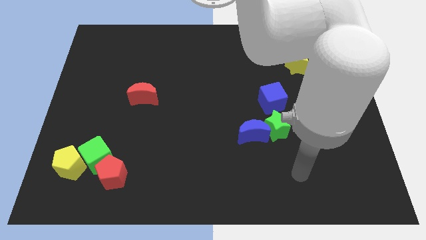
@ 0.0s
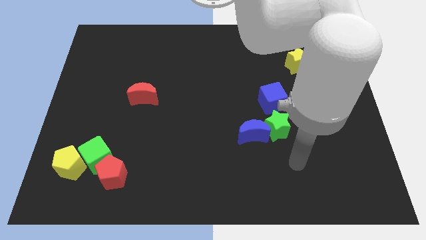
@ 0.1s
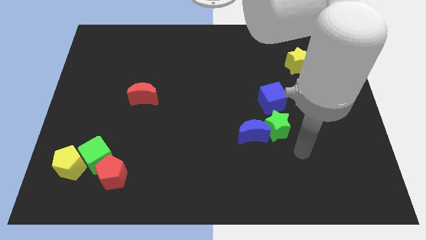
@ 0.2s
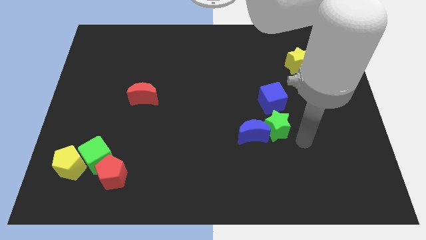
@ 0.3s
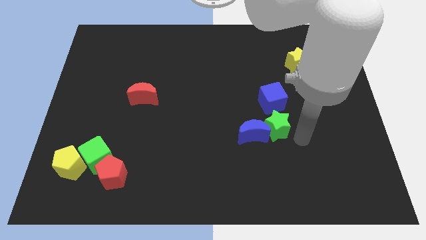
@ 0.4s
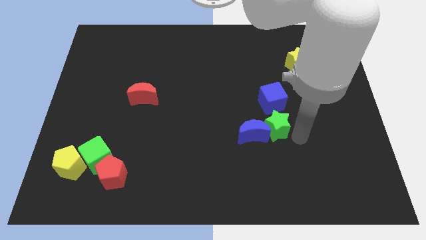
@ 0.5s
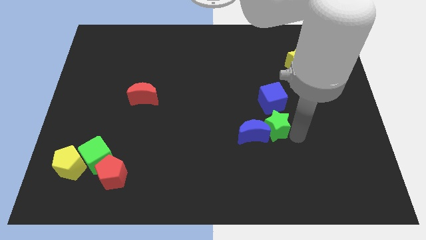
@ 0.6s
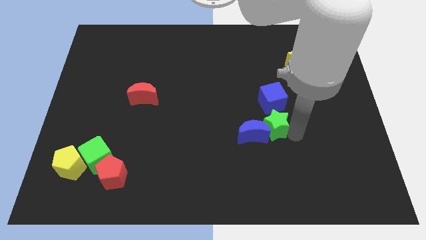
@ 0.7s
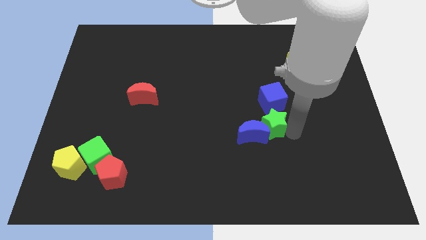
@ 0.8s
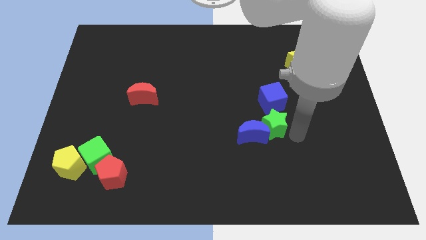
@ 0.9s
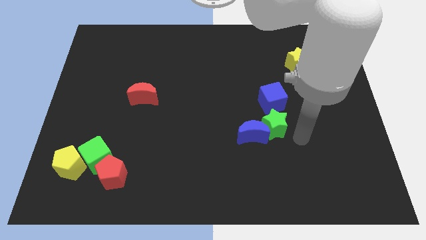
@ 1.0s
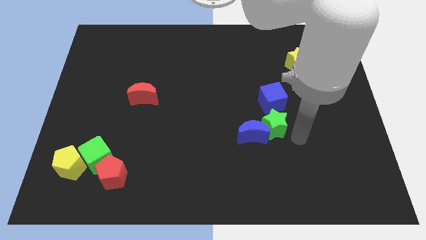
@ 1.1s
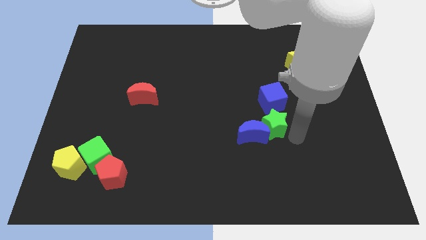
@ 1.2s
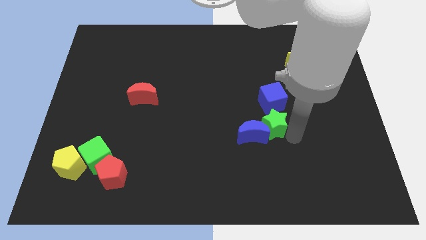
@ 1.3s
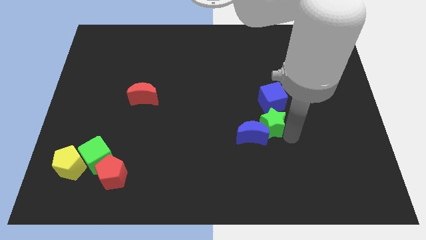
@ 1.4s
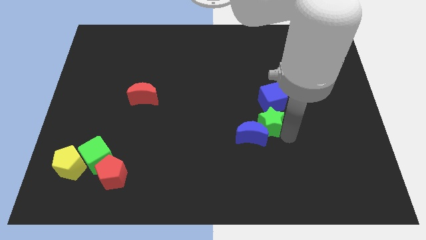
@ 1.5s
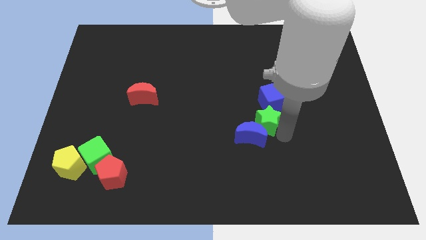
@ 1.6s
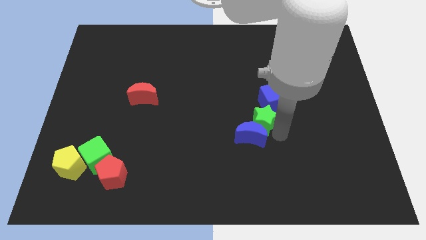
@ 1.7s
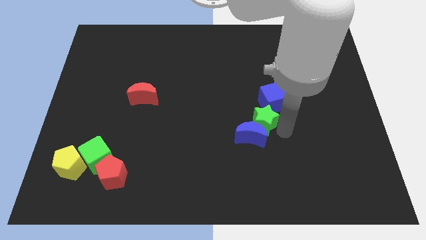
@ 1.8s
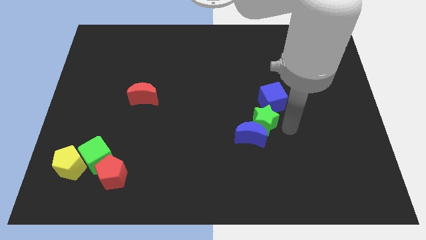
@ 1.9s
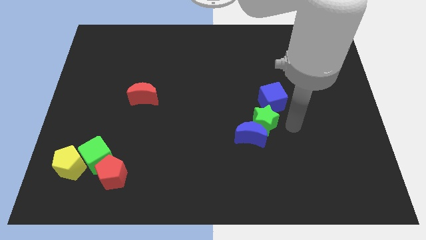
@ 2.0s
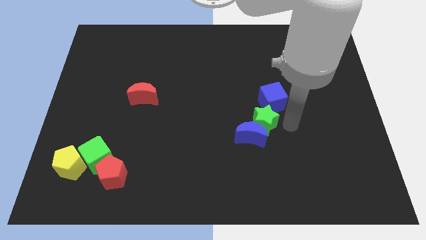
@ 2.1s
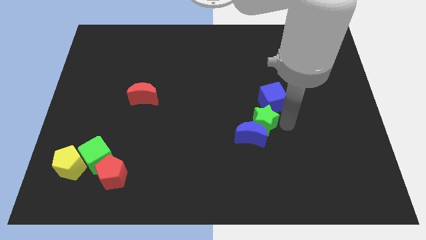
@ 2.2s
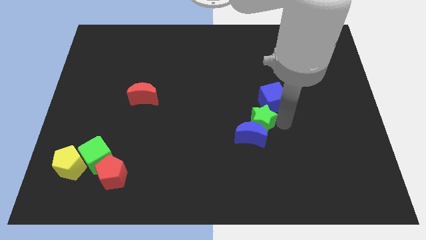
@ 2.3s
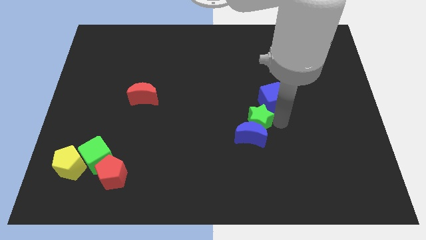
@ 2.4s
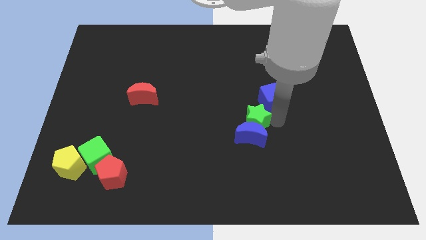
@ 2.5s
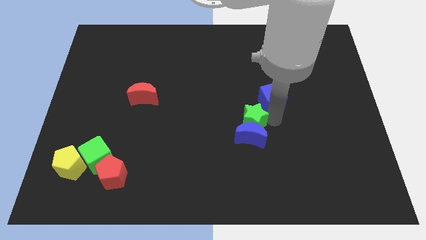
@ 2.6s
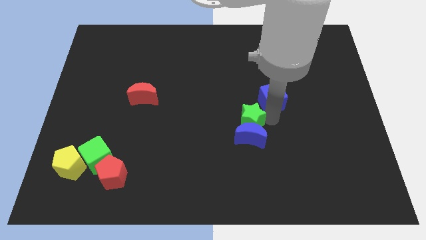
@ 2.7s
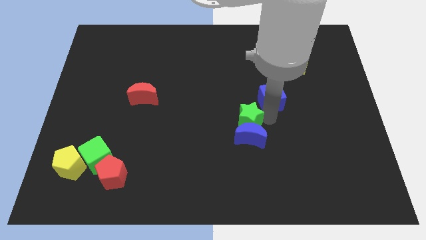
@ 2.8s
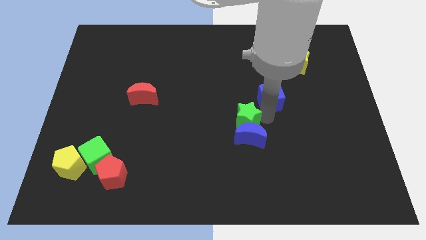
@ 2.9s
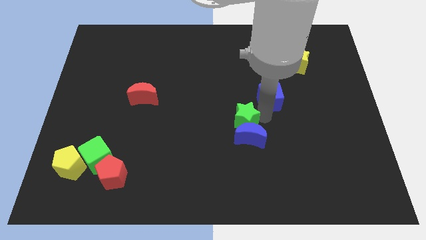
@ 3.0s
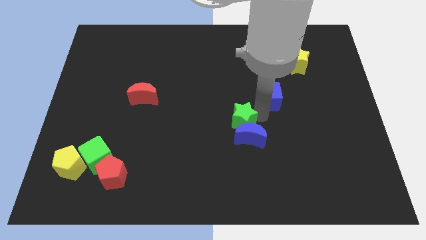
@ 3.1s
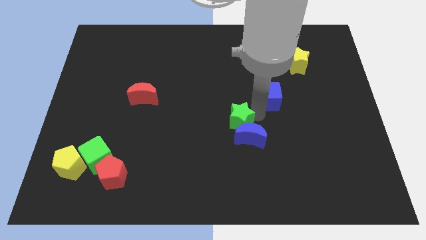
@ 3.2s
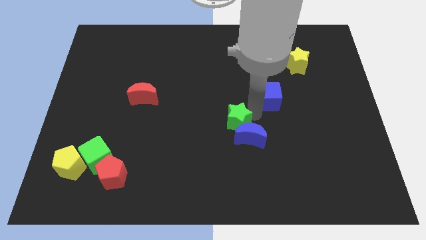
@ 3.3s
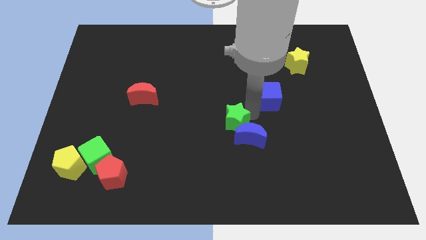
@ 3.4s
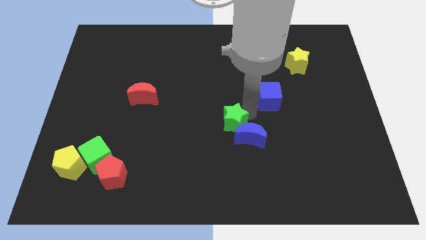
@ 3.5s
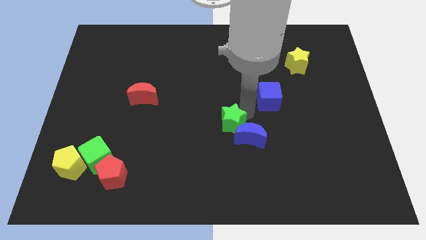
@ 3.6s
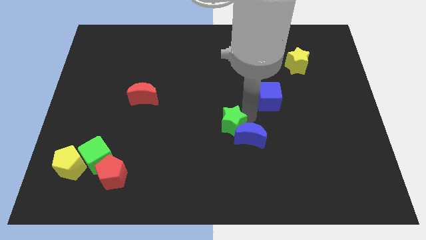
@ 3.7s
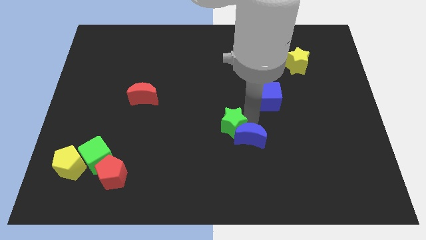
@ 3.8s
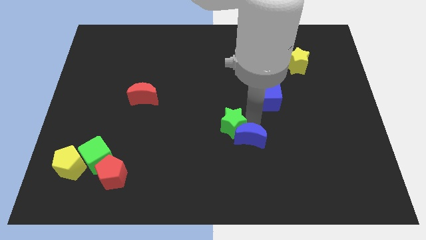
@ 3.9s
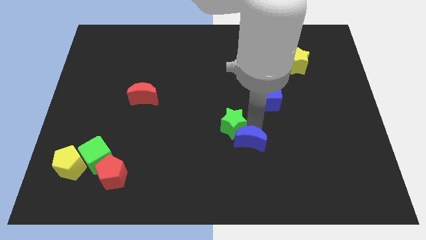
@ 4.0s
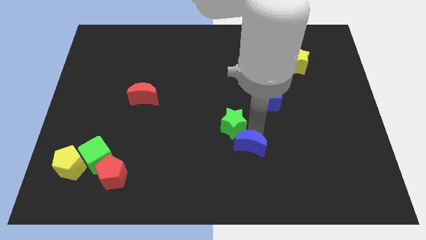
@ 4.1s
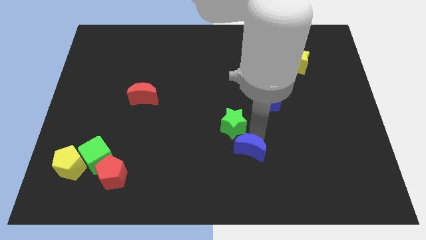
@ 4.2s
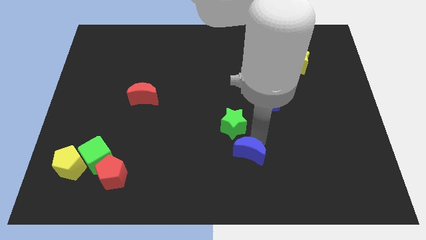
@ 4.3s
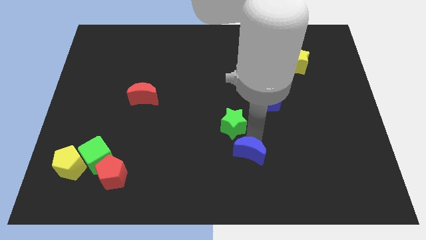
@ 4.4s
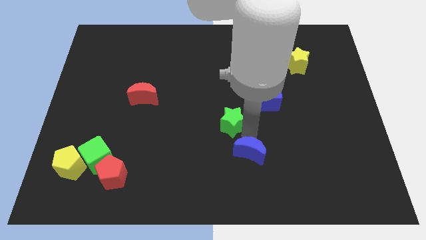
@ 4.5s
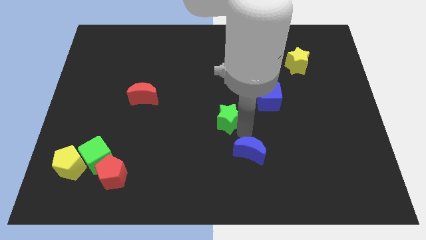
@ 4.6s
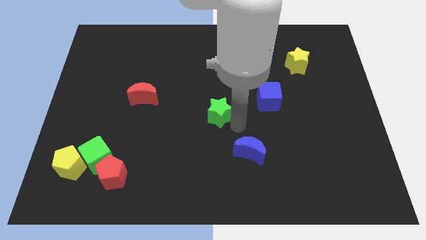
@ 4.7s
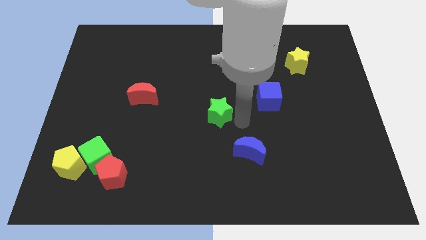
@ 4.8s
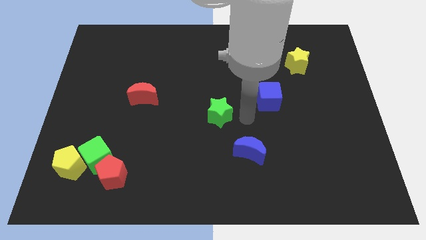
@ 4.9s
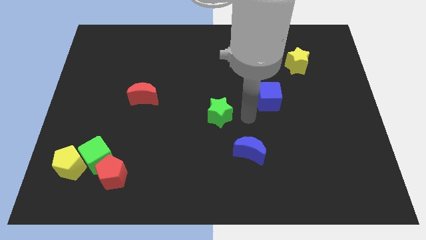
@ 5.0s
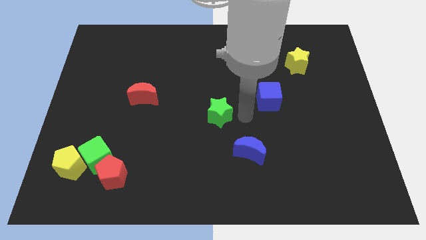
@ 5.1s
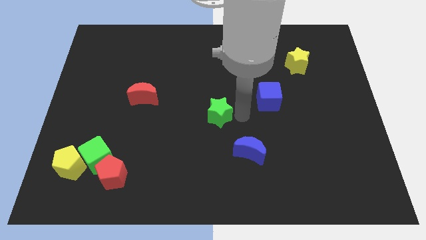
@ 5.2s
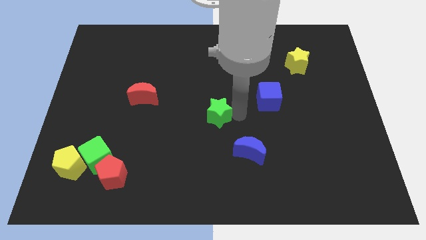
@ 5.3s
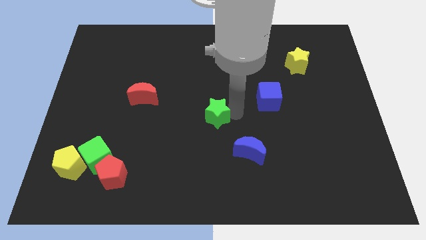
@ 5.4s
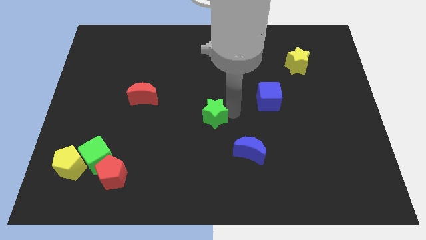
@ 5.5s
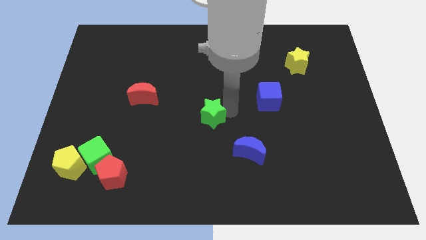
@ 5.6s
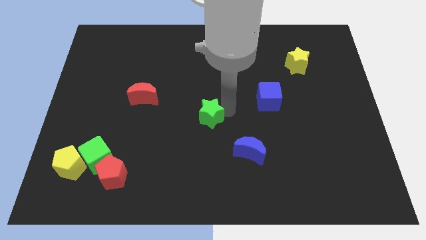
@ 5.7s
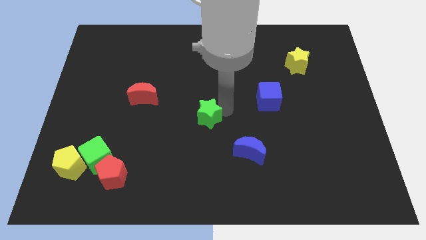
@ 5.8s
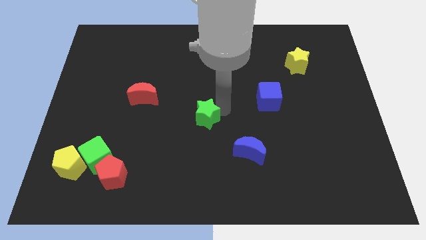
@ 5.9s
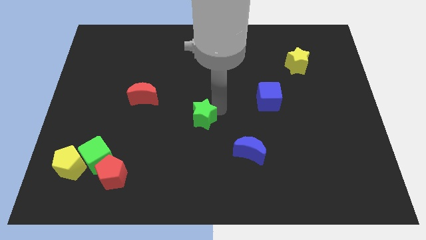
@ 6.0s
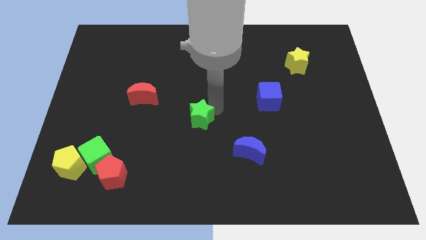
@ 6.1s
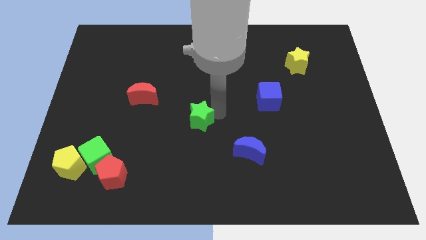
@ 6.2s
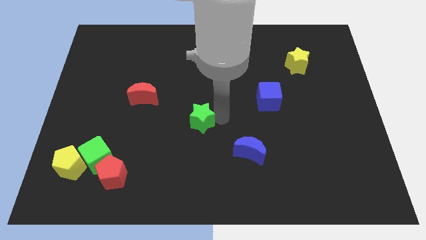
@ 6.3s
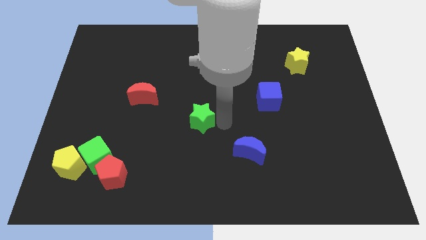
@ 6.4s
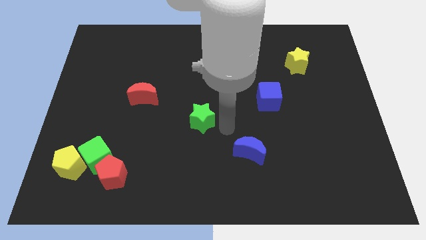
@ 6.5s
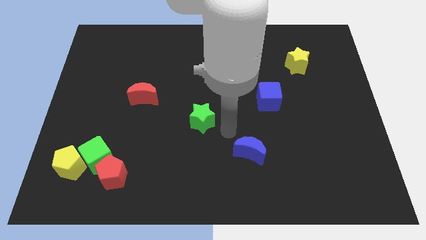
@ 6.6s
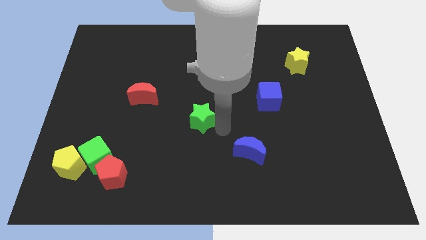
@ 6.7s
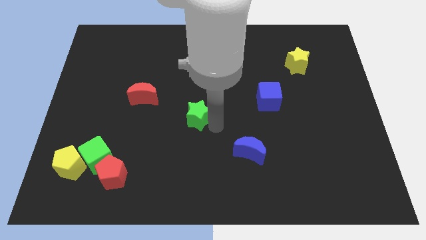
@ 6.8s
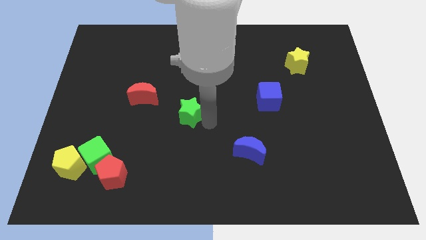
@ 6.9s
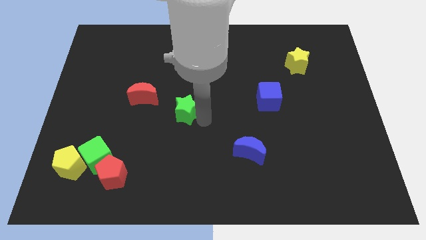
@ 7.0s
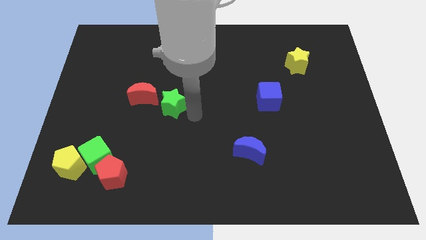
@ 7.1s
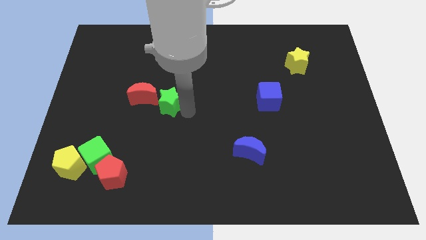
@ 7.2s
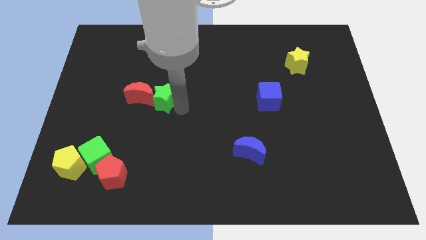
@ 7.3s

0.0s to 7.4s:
move the green star next to the red moon

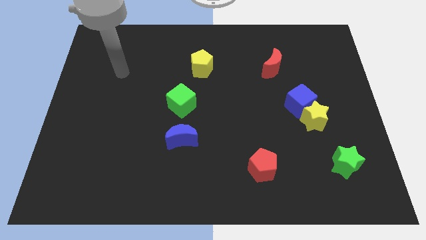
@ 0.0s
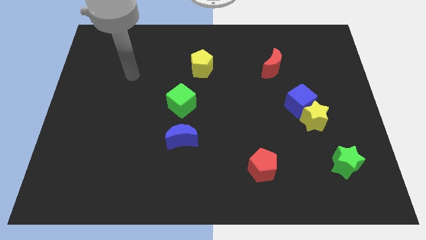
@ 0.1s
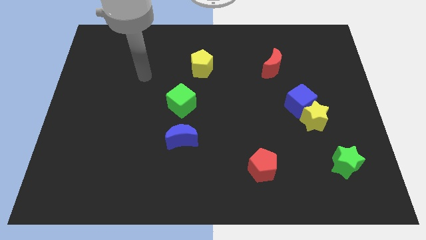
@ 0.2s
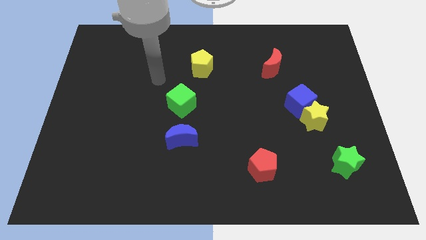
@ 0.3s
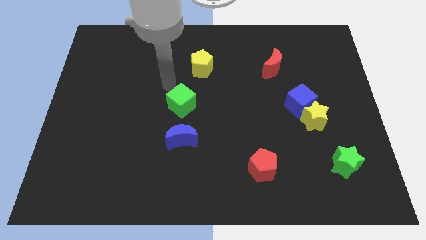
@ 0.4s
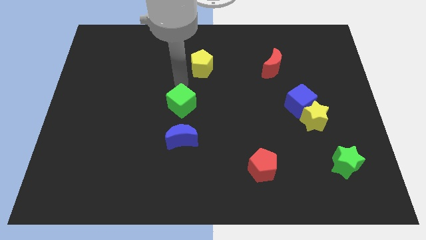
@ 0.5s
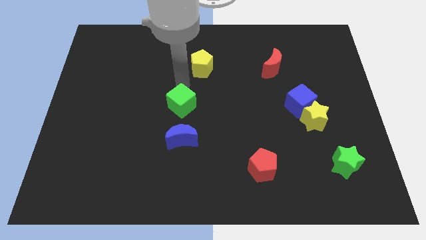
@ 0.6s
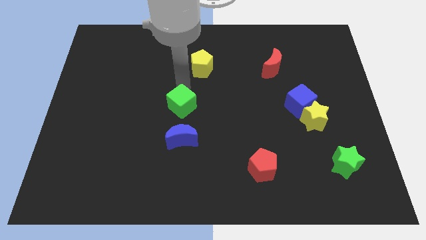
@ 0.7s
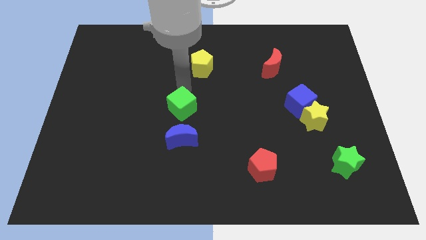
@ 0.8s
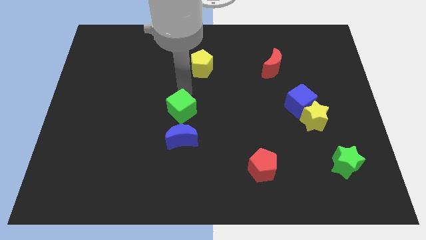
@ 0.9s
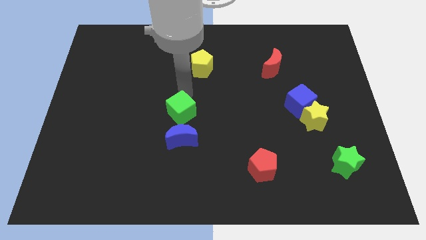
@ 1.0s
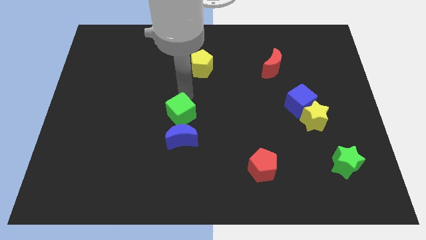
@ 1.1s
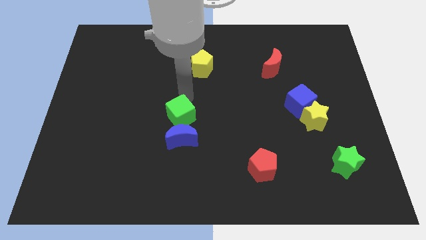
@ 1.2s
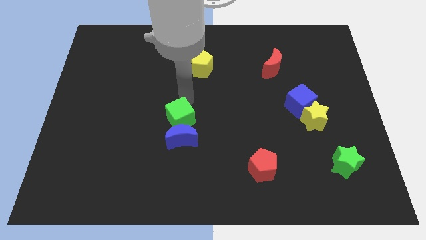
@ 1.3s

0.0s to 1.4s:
push the green cube next to the blue moon
